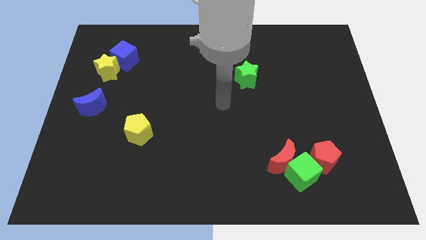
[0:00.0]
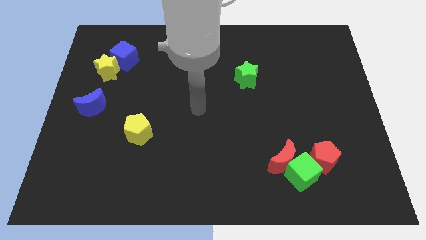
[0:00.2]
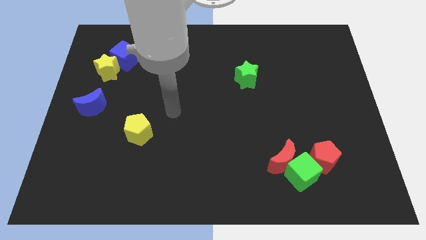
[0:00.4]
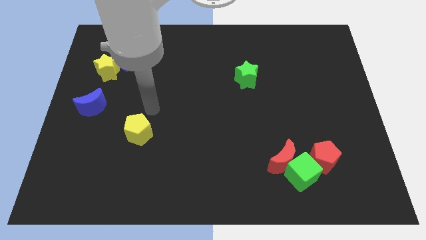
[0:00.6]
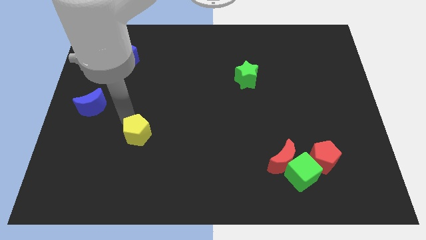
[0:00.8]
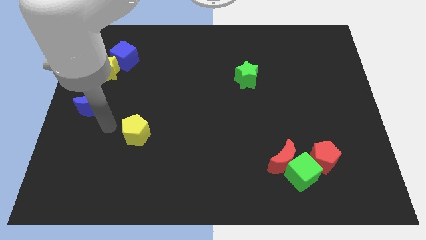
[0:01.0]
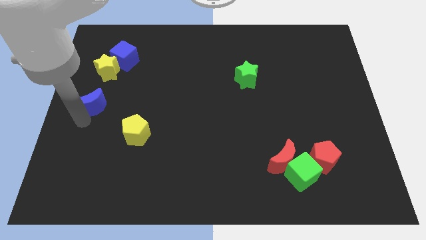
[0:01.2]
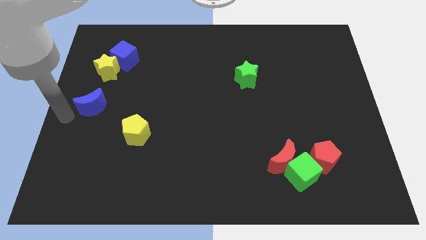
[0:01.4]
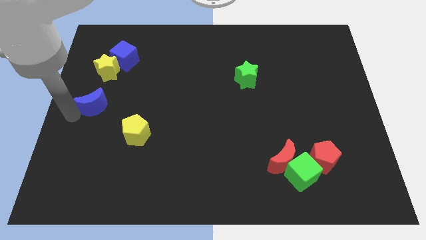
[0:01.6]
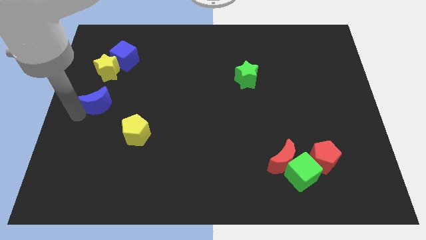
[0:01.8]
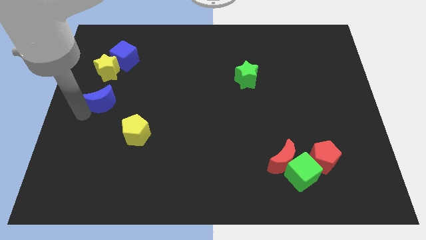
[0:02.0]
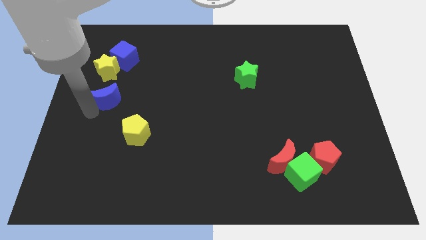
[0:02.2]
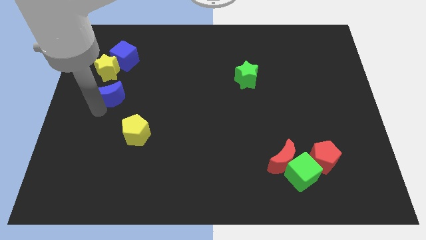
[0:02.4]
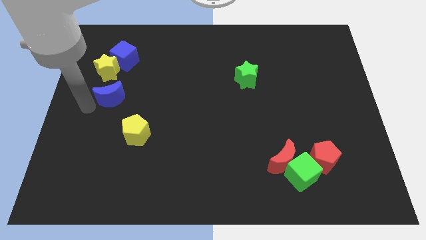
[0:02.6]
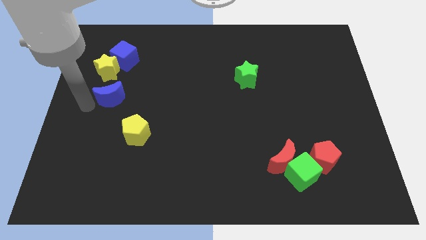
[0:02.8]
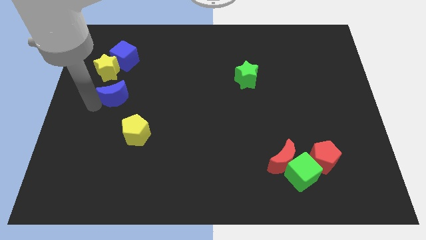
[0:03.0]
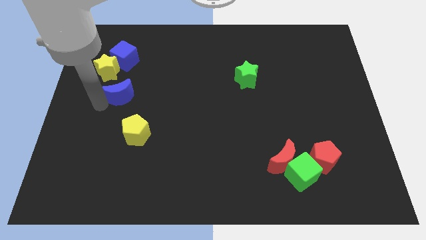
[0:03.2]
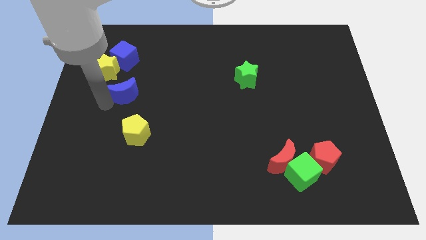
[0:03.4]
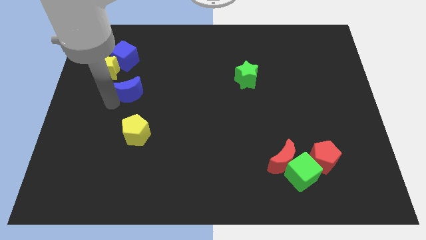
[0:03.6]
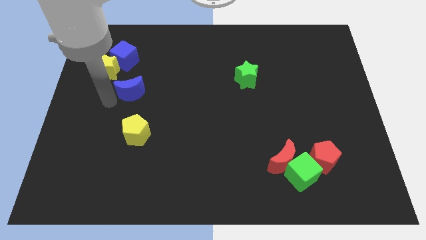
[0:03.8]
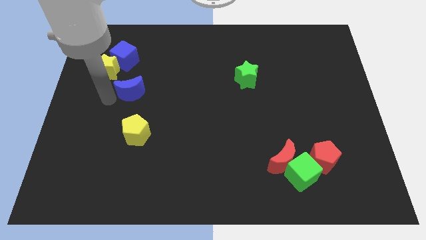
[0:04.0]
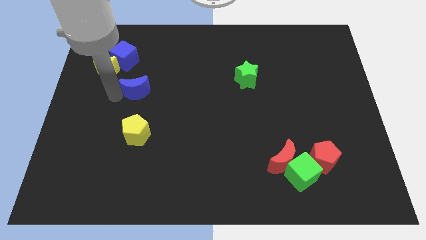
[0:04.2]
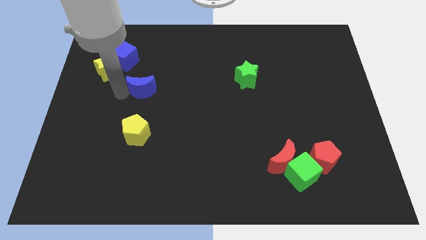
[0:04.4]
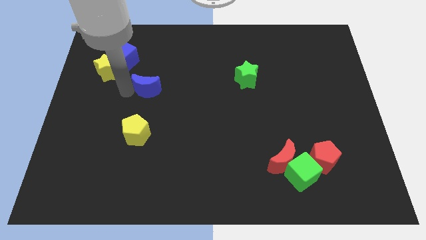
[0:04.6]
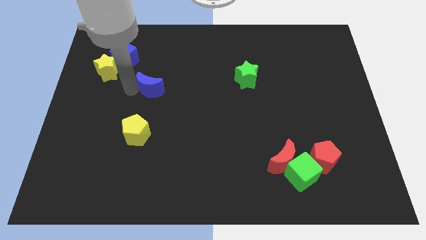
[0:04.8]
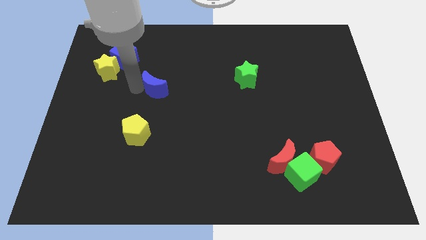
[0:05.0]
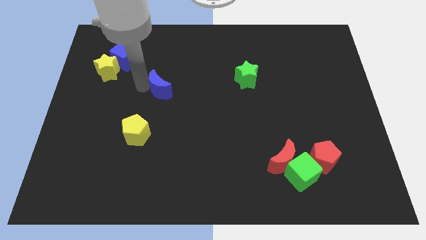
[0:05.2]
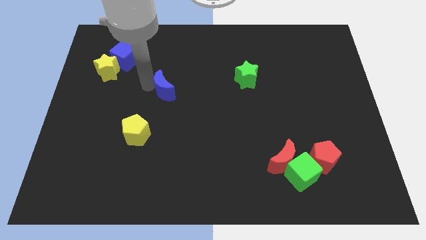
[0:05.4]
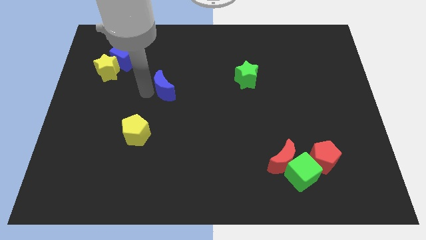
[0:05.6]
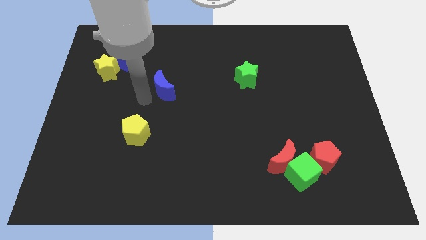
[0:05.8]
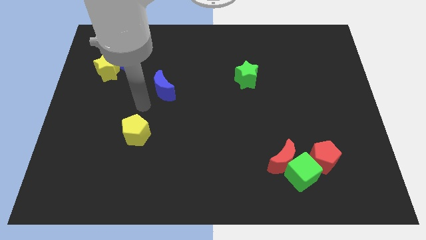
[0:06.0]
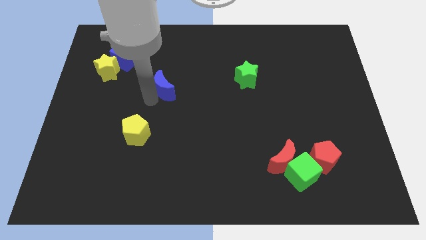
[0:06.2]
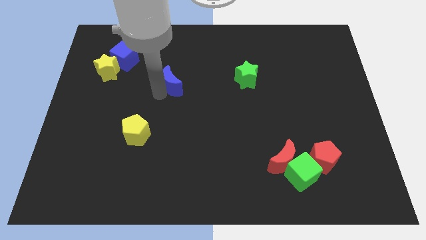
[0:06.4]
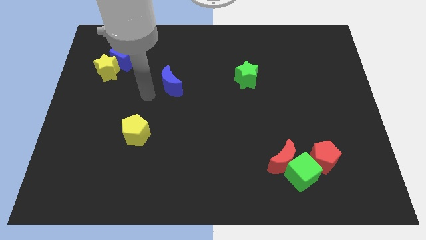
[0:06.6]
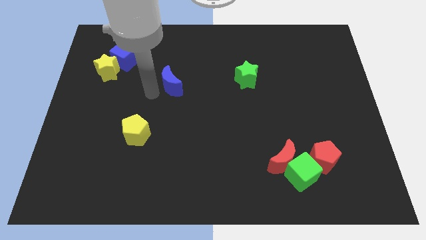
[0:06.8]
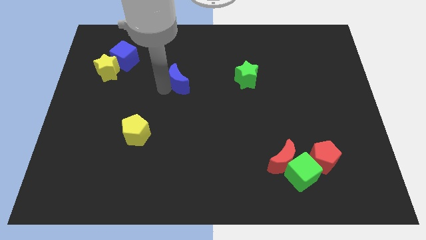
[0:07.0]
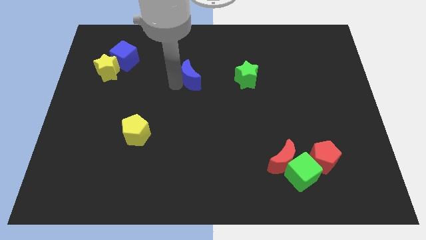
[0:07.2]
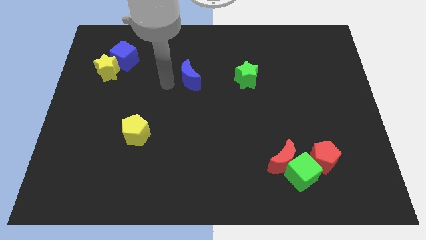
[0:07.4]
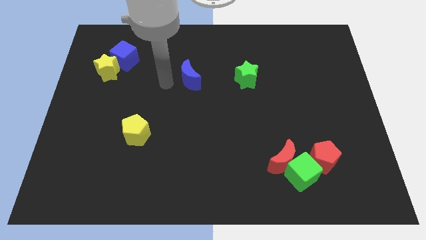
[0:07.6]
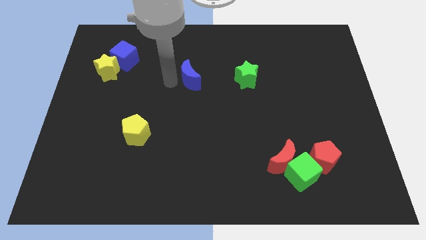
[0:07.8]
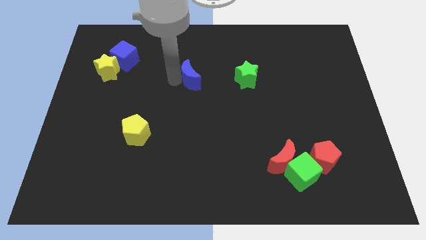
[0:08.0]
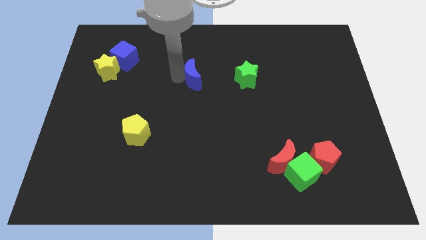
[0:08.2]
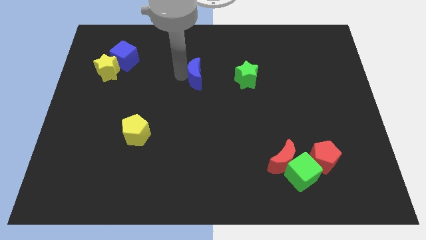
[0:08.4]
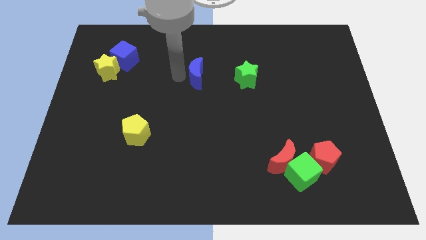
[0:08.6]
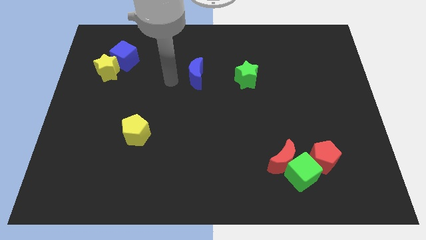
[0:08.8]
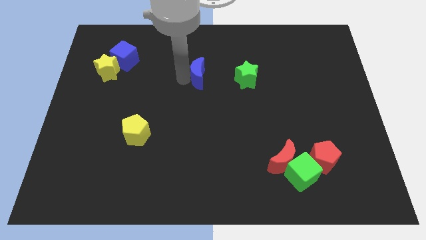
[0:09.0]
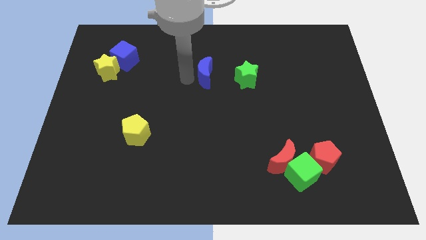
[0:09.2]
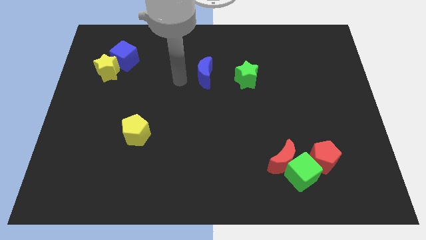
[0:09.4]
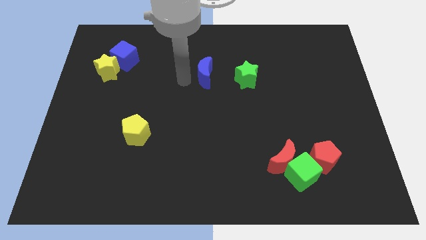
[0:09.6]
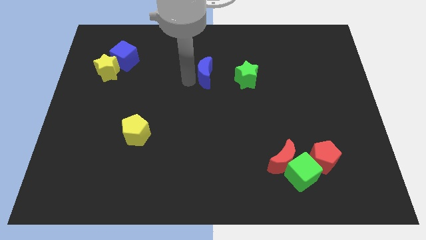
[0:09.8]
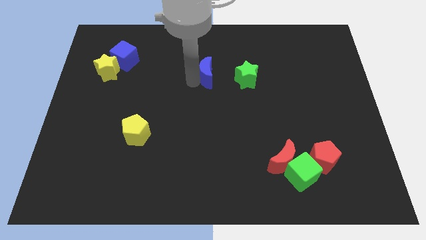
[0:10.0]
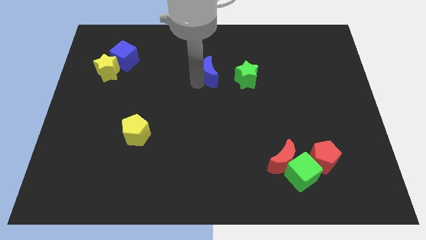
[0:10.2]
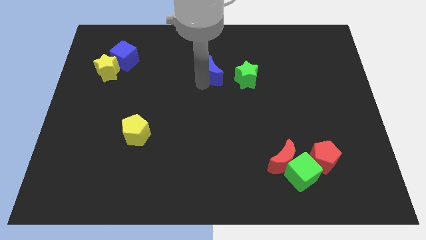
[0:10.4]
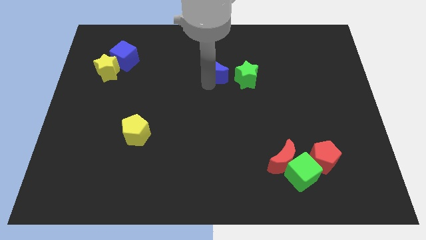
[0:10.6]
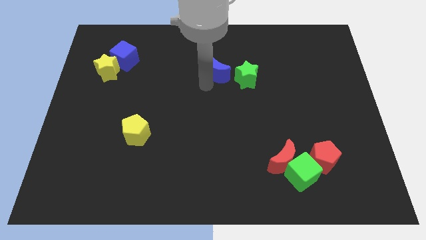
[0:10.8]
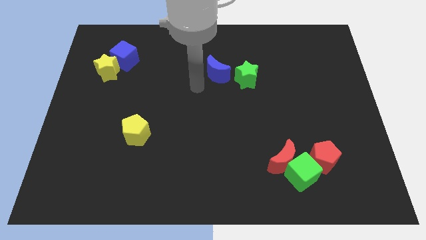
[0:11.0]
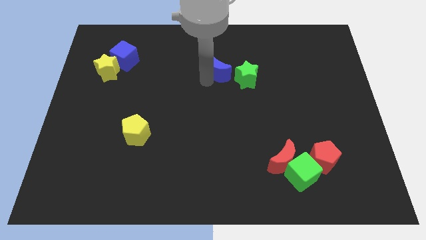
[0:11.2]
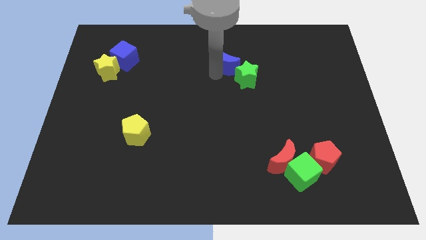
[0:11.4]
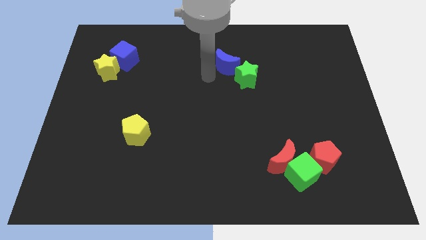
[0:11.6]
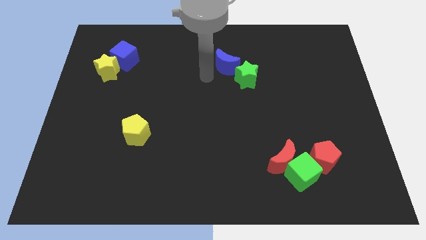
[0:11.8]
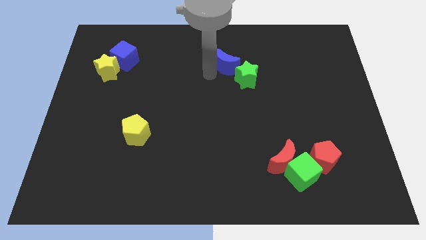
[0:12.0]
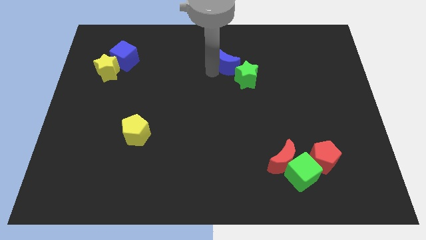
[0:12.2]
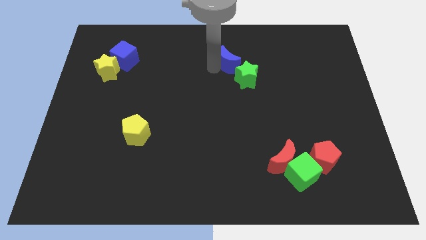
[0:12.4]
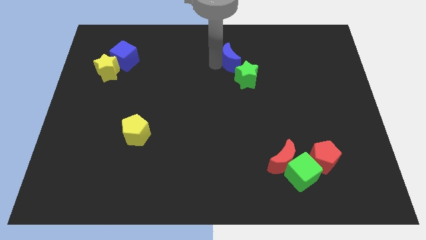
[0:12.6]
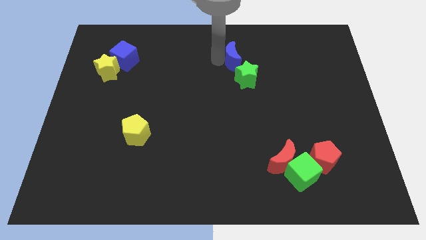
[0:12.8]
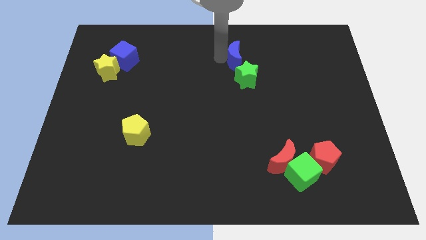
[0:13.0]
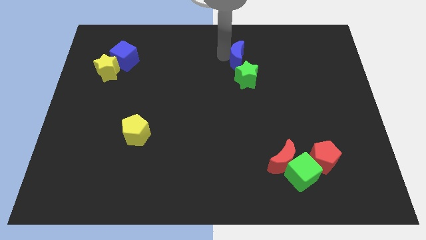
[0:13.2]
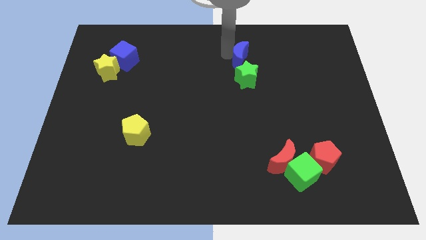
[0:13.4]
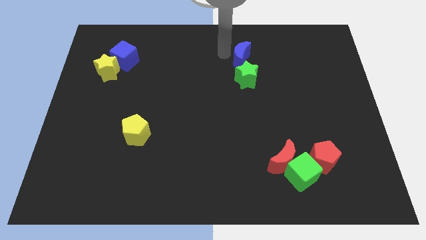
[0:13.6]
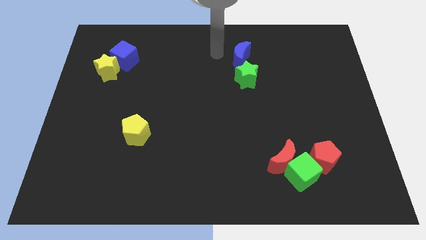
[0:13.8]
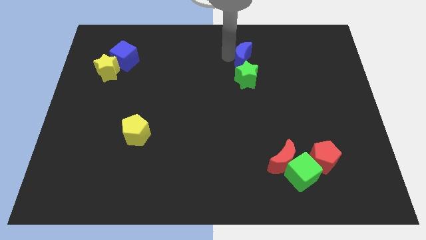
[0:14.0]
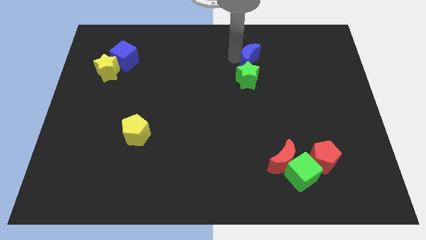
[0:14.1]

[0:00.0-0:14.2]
push the blue moon to the top right side of the green star

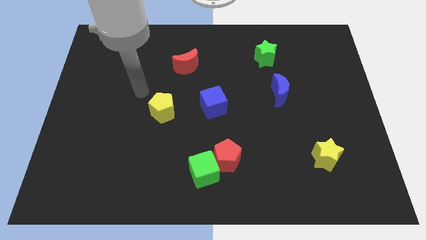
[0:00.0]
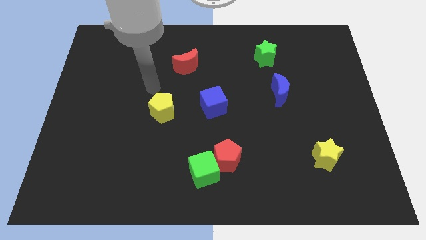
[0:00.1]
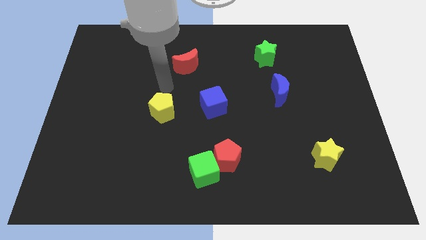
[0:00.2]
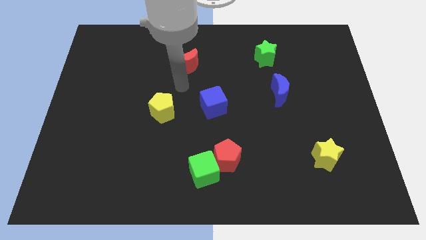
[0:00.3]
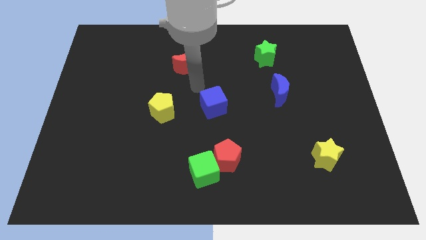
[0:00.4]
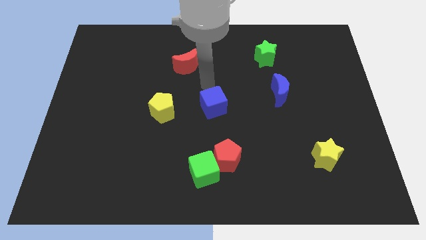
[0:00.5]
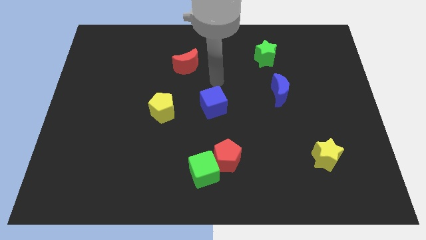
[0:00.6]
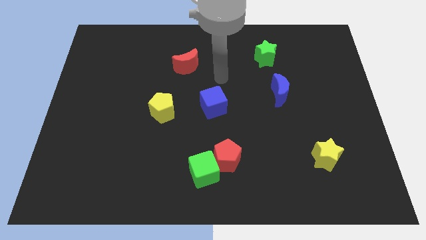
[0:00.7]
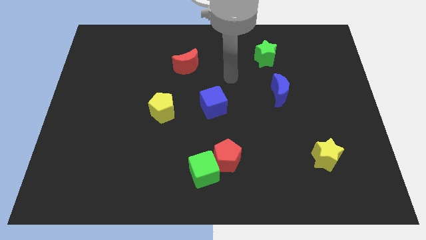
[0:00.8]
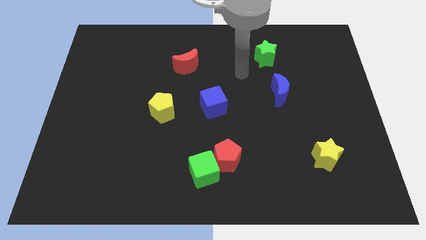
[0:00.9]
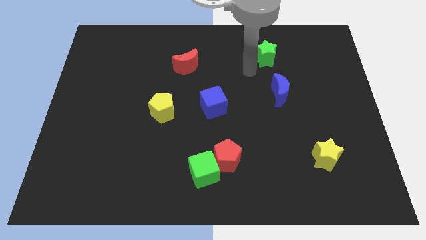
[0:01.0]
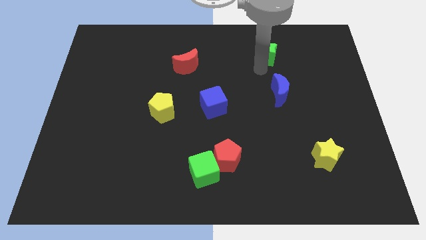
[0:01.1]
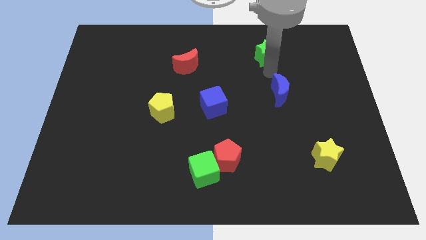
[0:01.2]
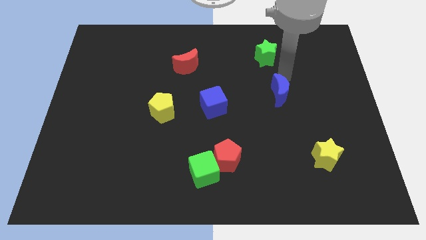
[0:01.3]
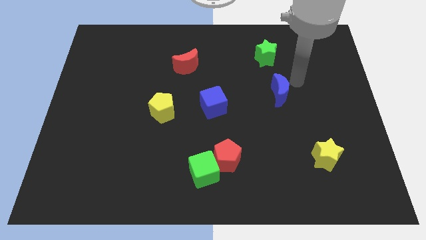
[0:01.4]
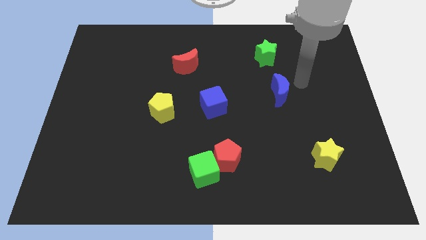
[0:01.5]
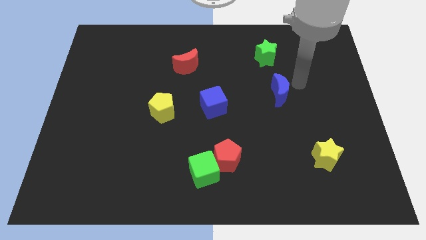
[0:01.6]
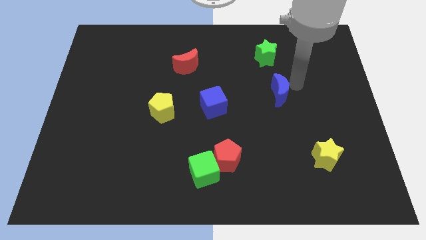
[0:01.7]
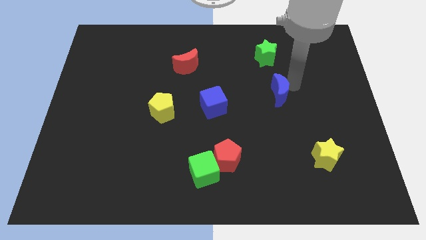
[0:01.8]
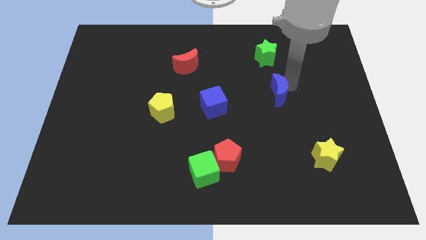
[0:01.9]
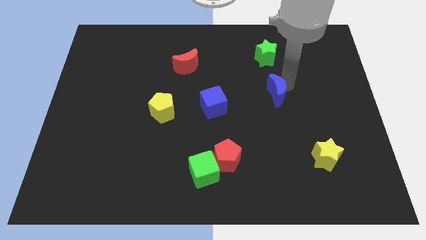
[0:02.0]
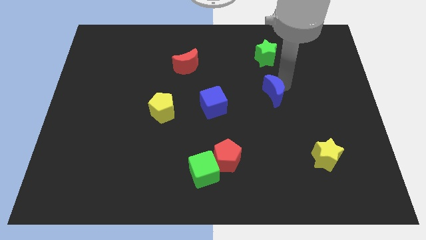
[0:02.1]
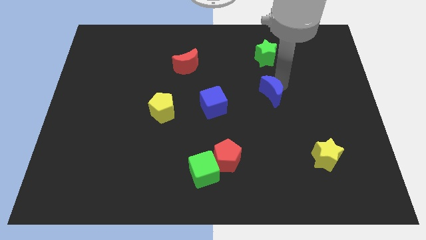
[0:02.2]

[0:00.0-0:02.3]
put the blue moon just right of the blue cube
